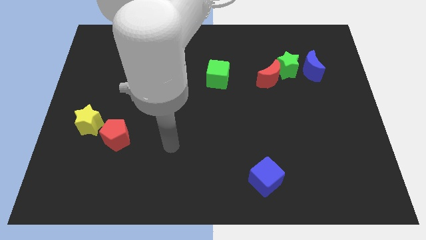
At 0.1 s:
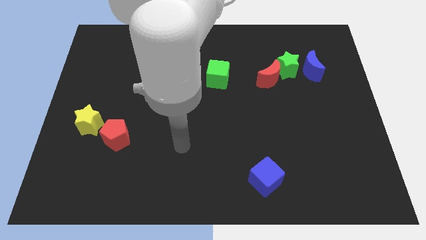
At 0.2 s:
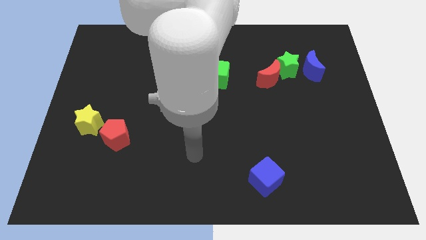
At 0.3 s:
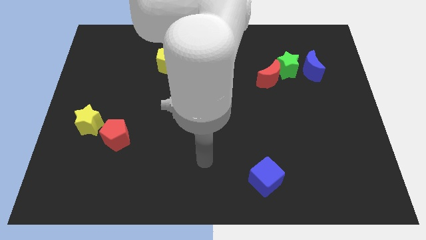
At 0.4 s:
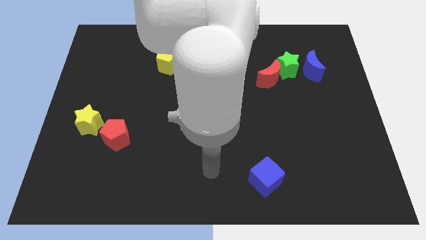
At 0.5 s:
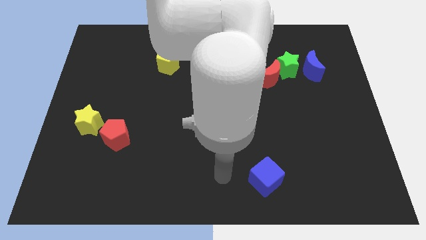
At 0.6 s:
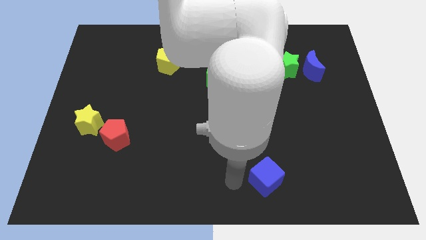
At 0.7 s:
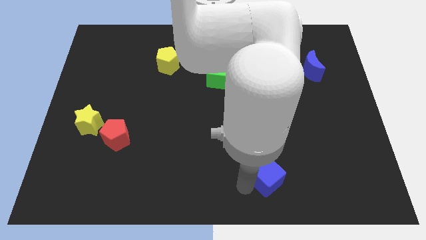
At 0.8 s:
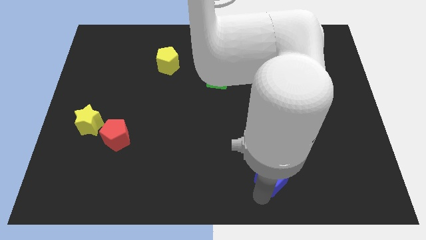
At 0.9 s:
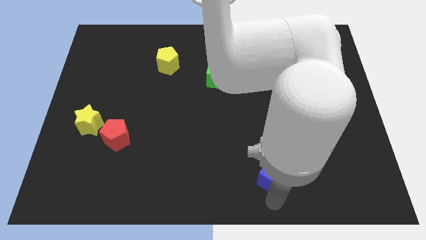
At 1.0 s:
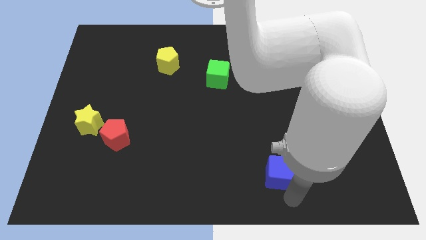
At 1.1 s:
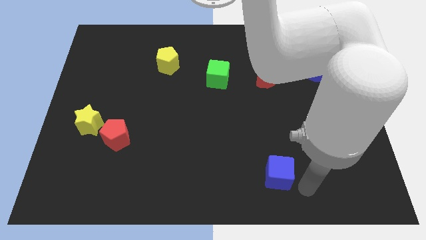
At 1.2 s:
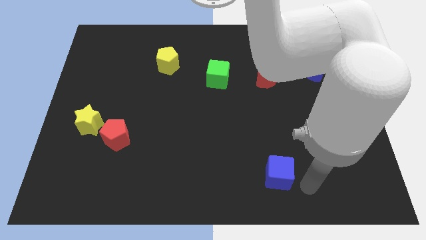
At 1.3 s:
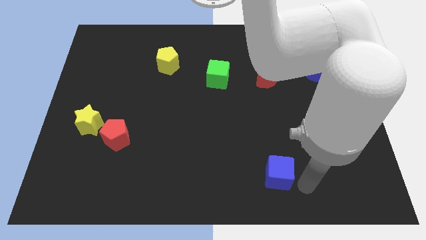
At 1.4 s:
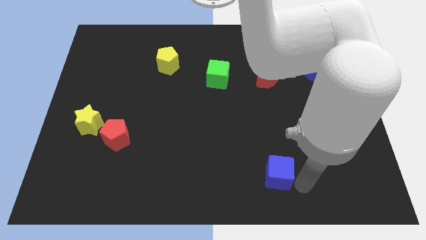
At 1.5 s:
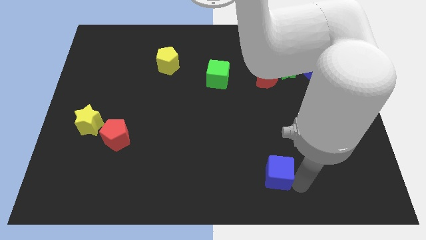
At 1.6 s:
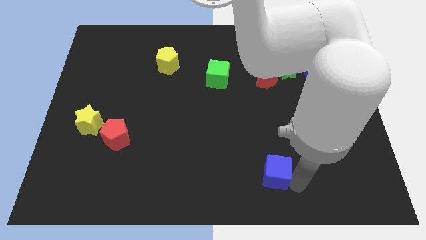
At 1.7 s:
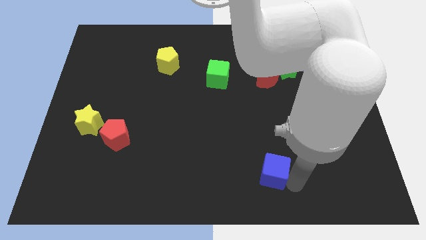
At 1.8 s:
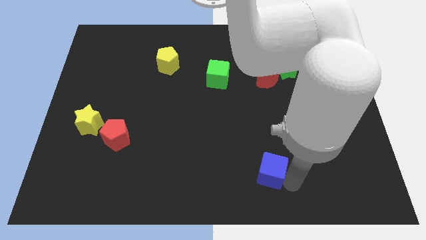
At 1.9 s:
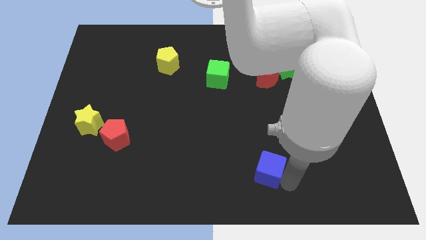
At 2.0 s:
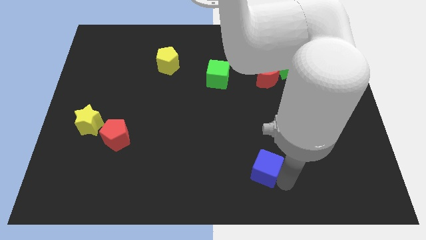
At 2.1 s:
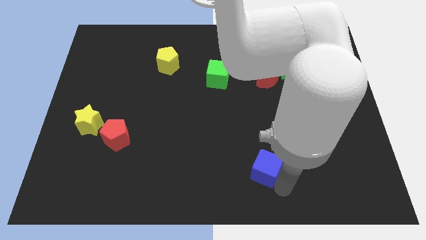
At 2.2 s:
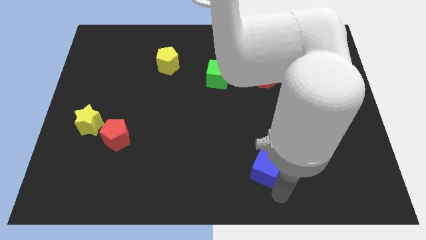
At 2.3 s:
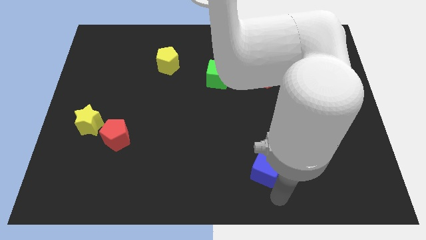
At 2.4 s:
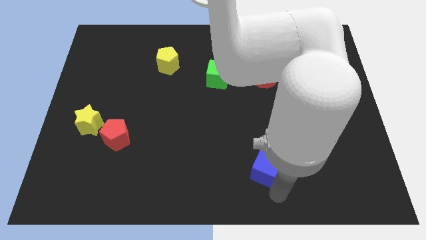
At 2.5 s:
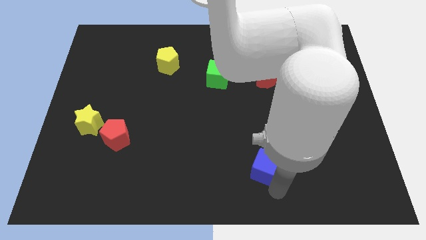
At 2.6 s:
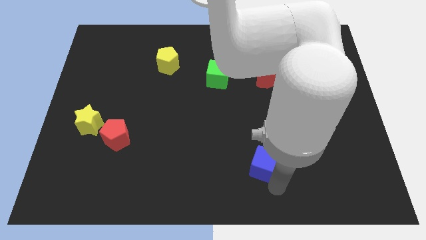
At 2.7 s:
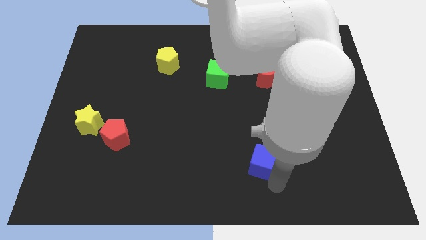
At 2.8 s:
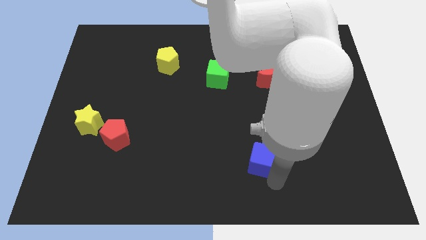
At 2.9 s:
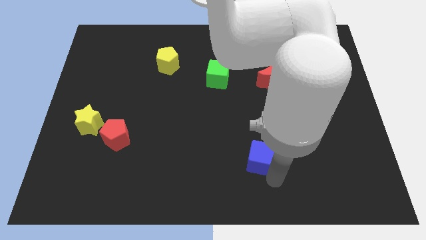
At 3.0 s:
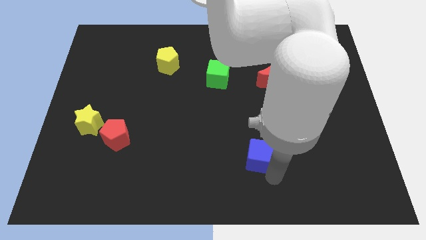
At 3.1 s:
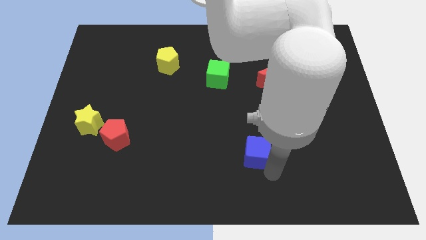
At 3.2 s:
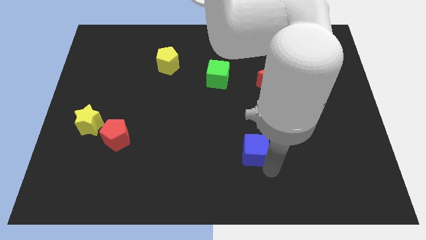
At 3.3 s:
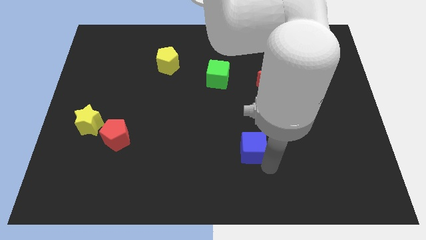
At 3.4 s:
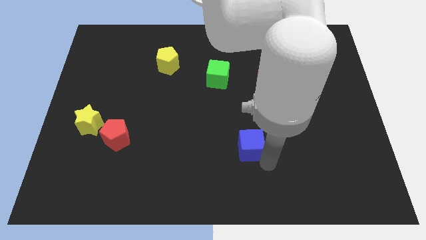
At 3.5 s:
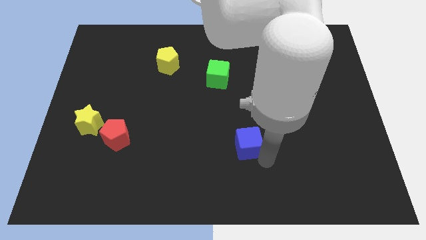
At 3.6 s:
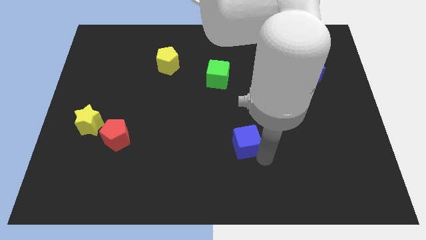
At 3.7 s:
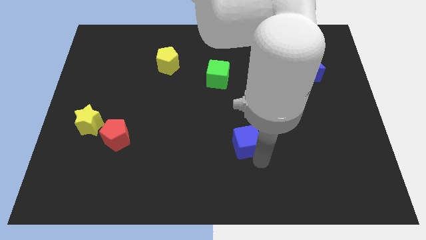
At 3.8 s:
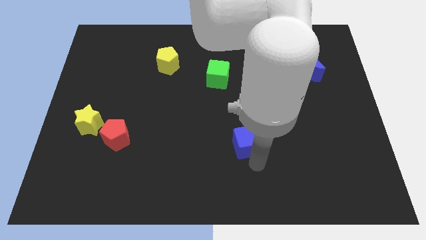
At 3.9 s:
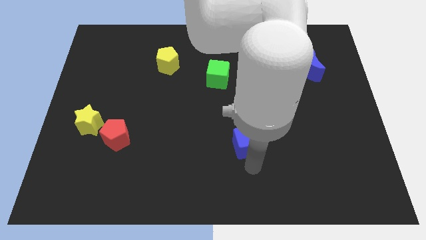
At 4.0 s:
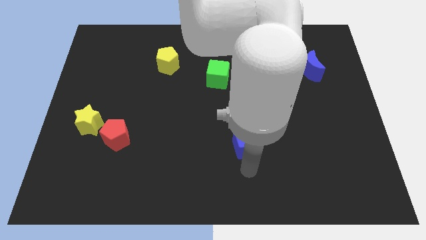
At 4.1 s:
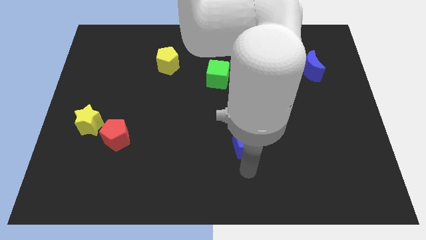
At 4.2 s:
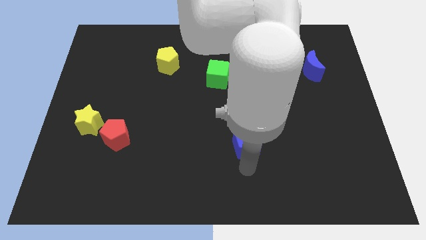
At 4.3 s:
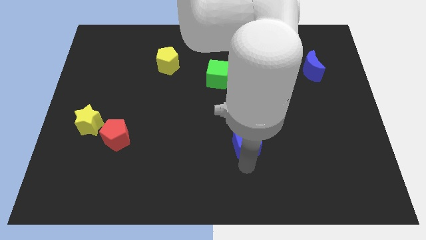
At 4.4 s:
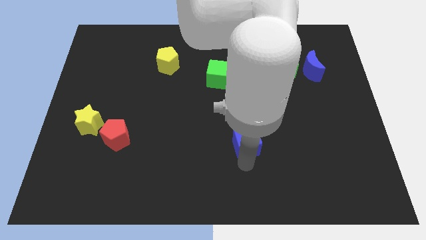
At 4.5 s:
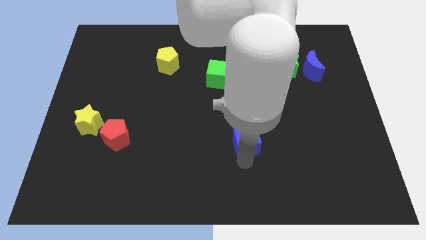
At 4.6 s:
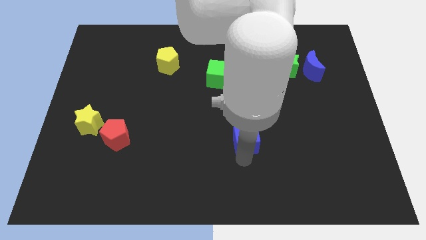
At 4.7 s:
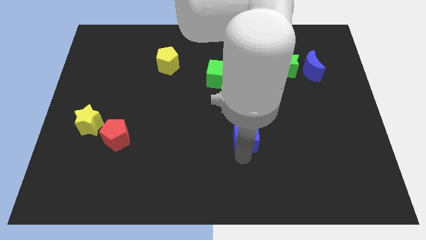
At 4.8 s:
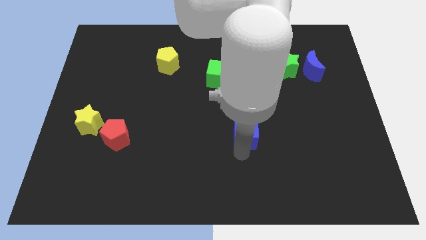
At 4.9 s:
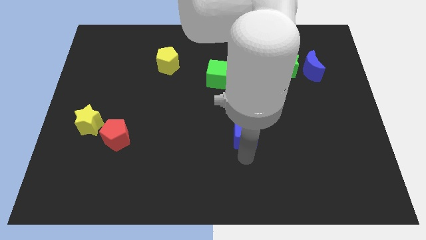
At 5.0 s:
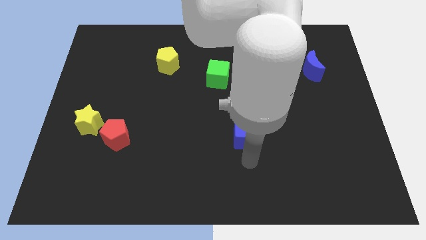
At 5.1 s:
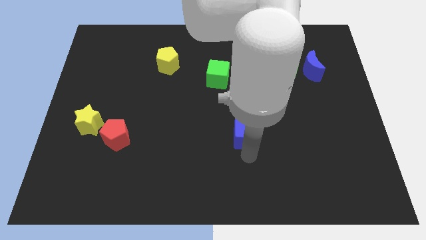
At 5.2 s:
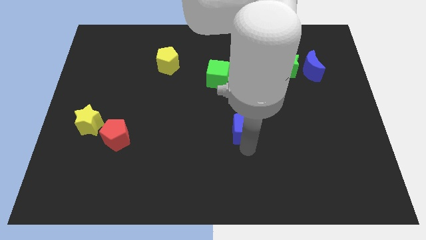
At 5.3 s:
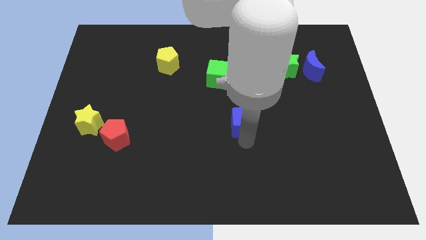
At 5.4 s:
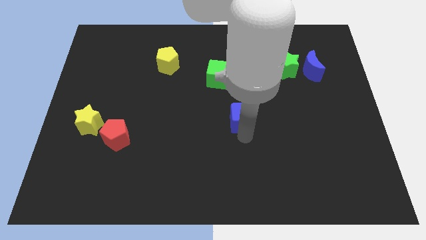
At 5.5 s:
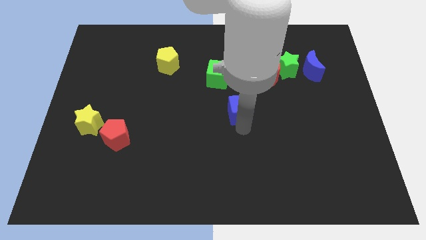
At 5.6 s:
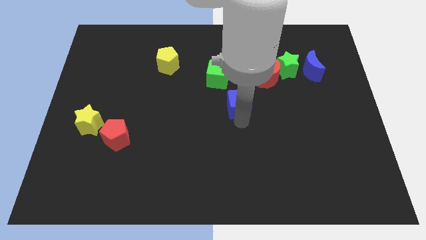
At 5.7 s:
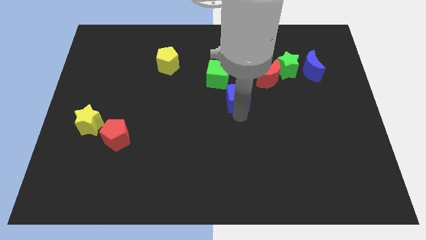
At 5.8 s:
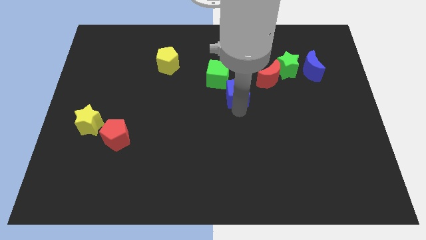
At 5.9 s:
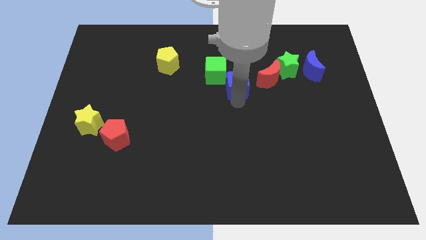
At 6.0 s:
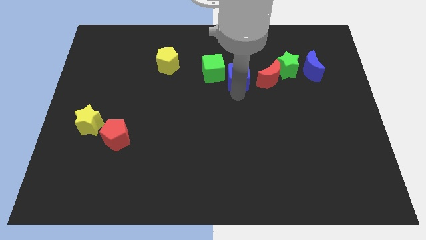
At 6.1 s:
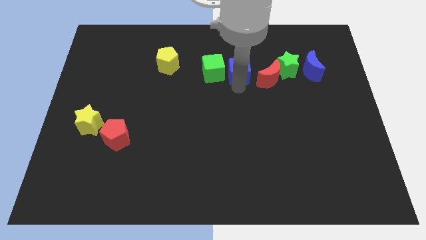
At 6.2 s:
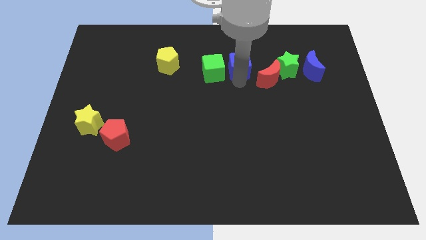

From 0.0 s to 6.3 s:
push the blue cube diagonally up and to the right of the green cube
